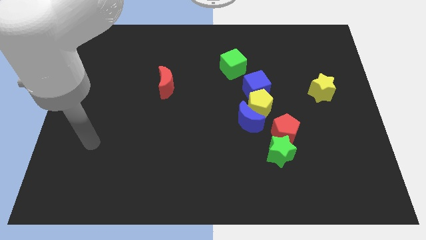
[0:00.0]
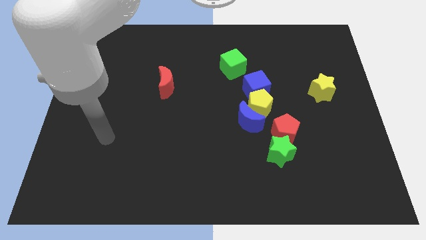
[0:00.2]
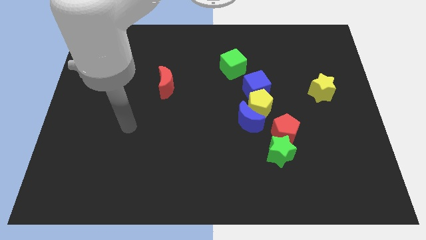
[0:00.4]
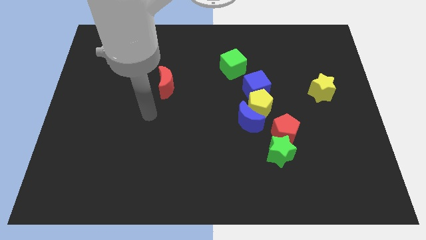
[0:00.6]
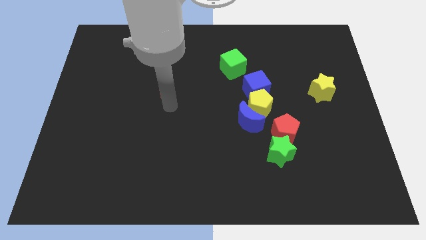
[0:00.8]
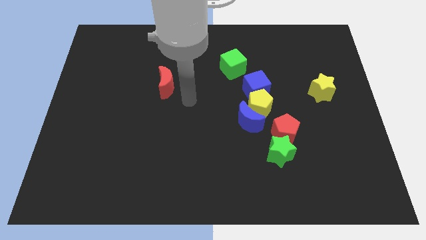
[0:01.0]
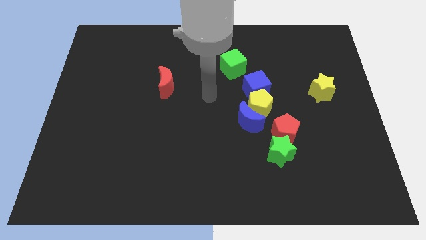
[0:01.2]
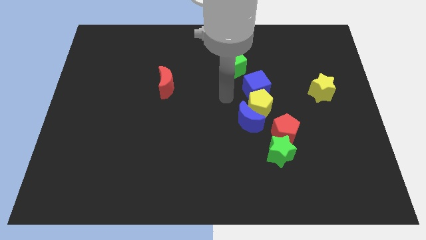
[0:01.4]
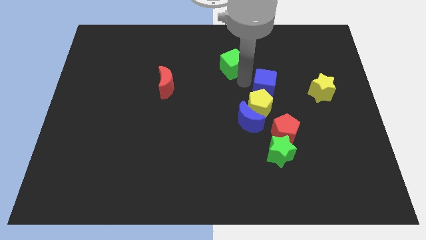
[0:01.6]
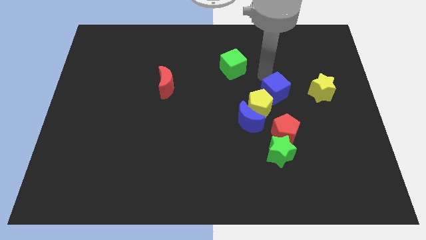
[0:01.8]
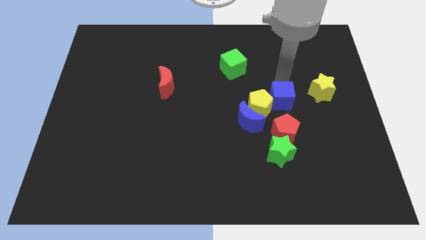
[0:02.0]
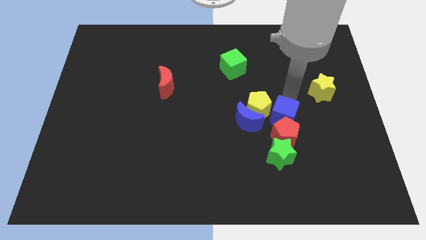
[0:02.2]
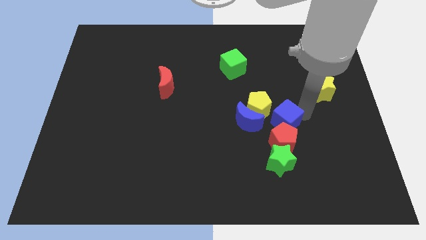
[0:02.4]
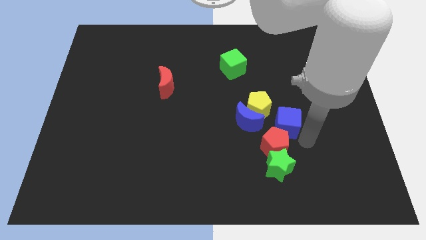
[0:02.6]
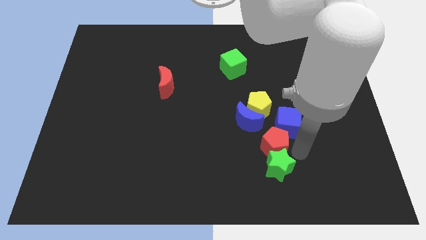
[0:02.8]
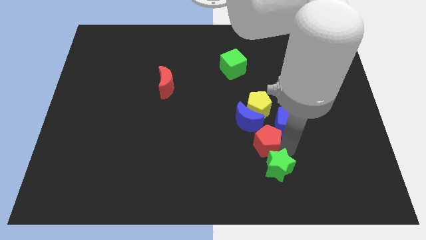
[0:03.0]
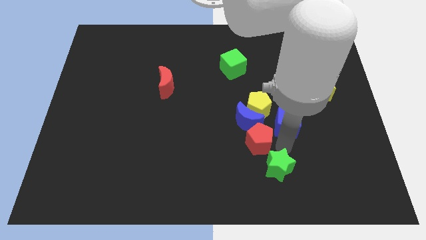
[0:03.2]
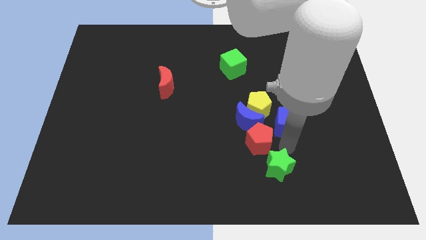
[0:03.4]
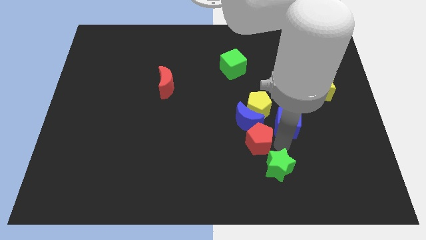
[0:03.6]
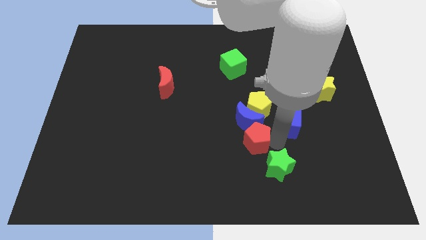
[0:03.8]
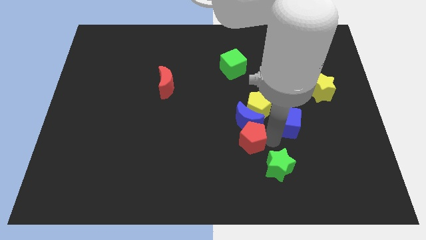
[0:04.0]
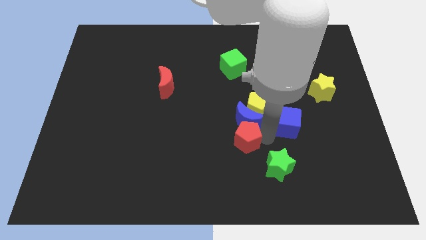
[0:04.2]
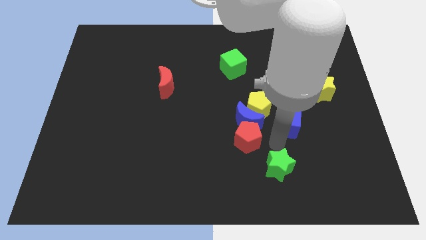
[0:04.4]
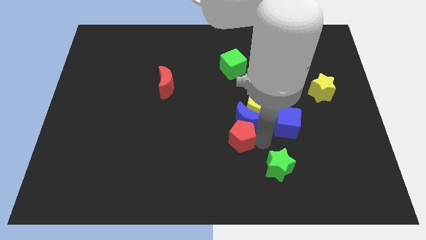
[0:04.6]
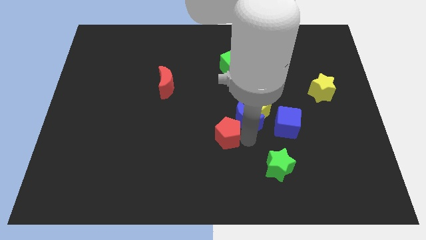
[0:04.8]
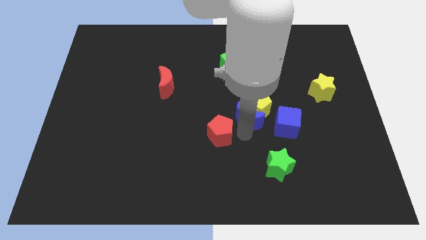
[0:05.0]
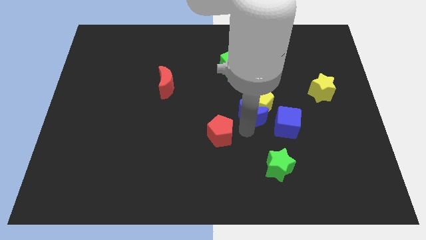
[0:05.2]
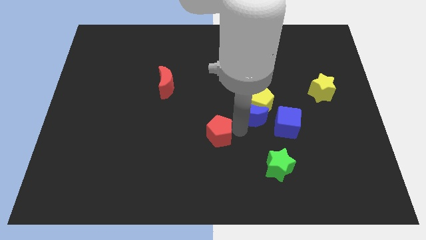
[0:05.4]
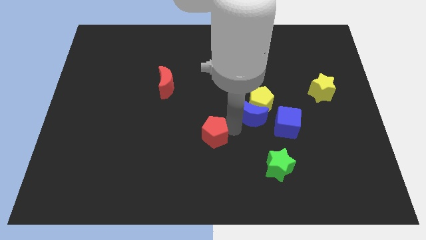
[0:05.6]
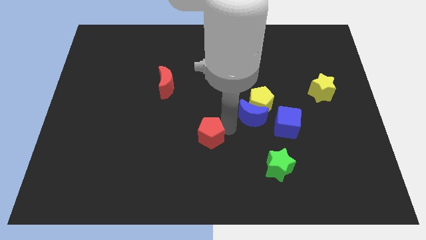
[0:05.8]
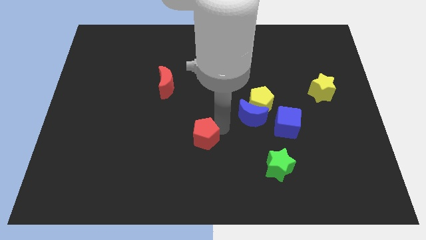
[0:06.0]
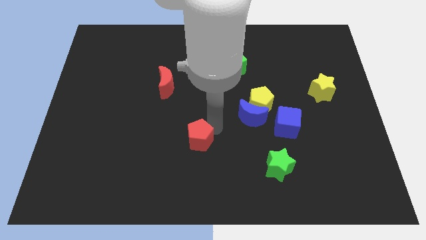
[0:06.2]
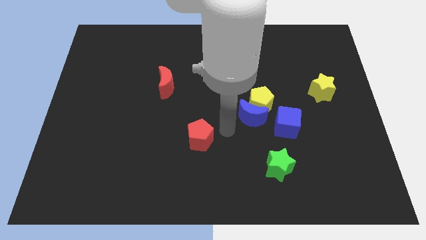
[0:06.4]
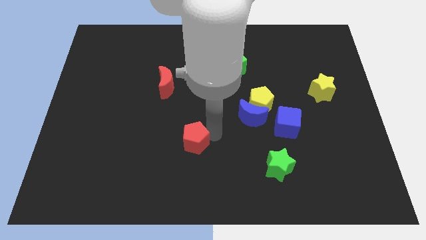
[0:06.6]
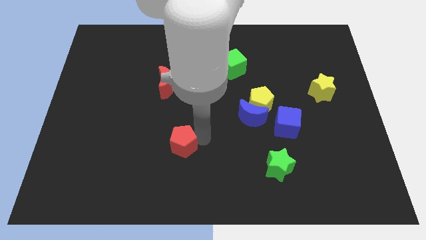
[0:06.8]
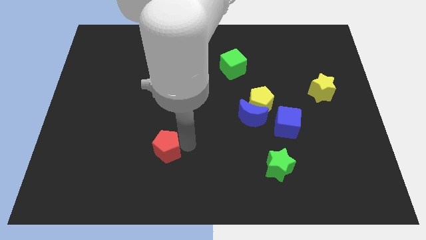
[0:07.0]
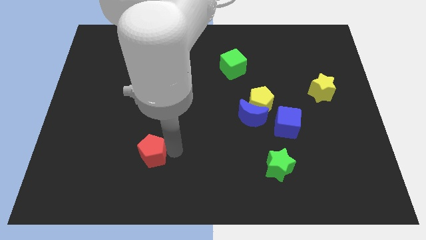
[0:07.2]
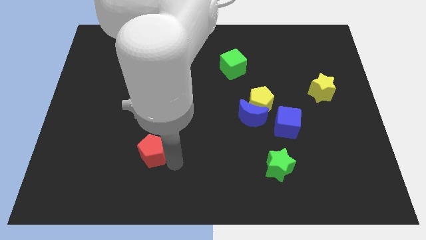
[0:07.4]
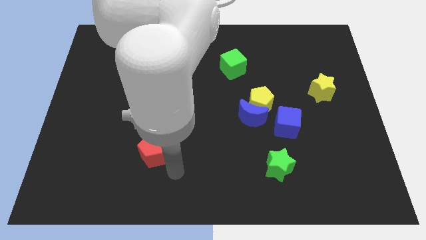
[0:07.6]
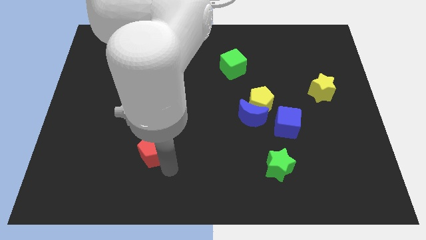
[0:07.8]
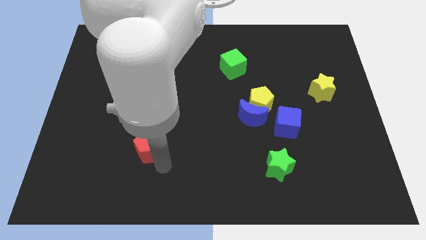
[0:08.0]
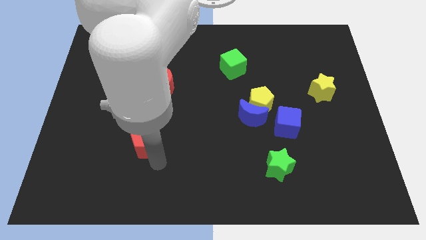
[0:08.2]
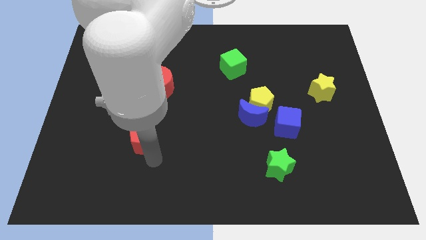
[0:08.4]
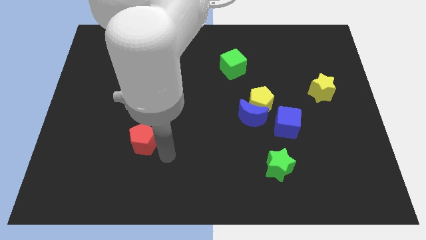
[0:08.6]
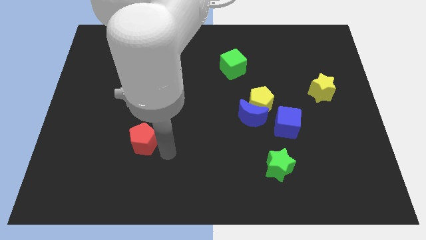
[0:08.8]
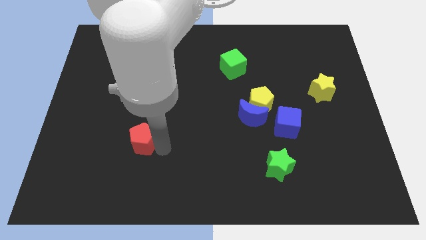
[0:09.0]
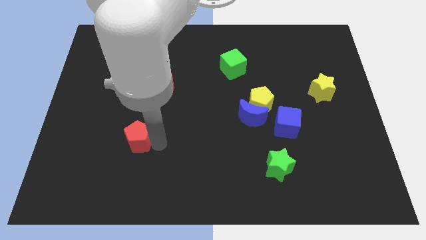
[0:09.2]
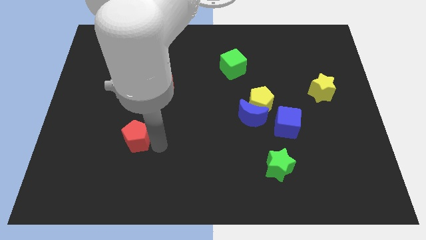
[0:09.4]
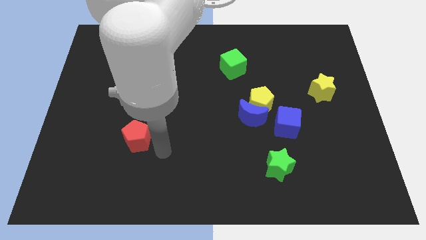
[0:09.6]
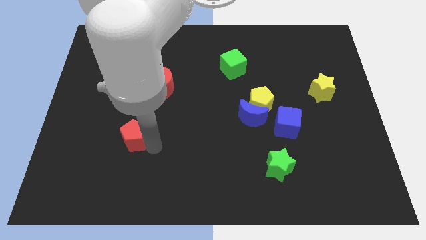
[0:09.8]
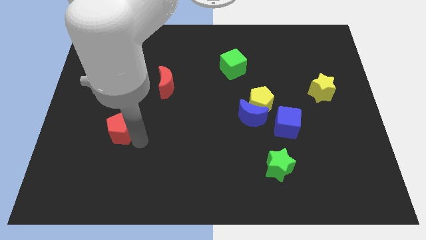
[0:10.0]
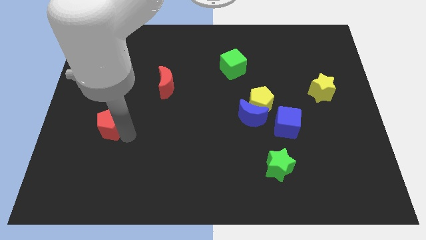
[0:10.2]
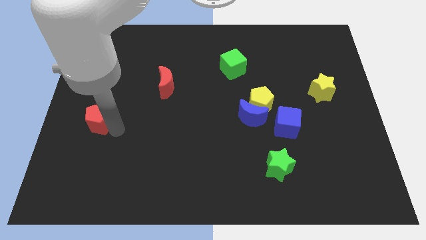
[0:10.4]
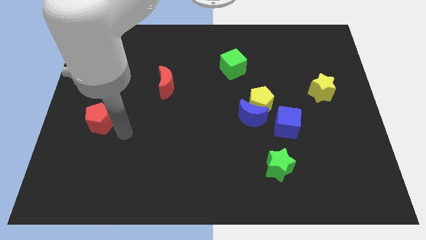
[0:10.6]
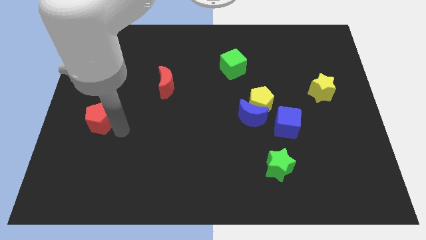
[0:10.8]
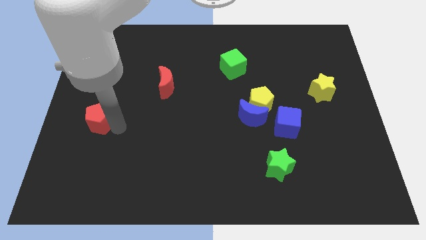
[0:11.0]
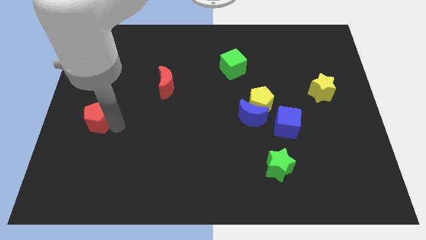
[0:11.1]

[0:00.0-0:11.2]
push the red pentagon to the left side
